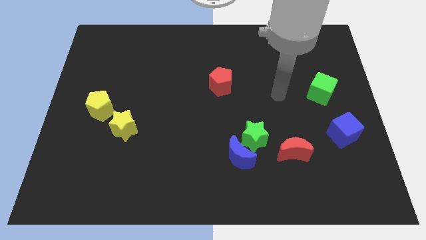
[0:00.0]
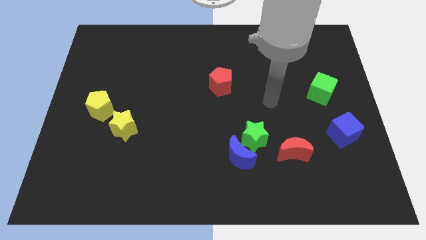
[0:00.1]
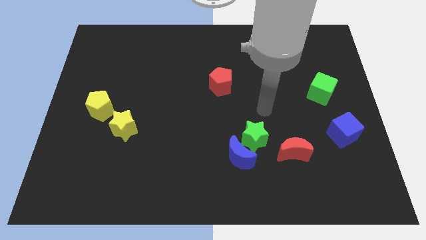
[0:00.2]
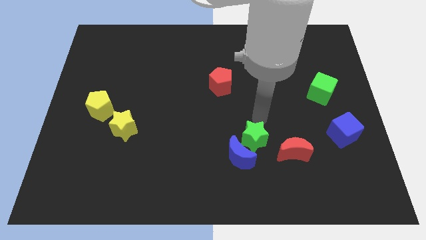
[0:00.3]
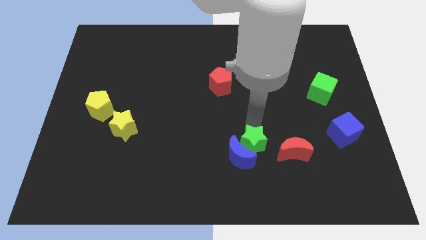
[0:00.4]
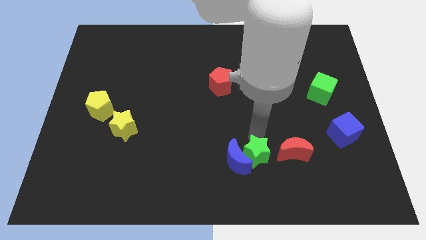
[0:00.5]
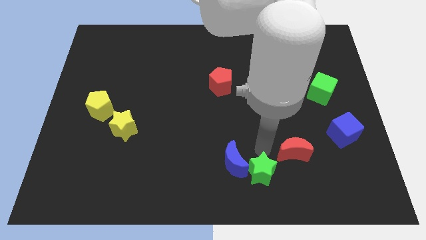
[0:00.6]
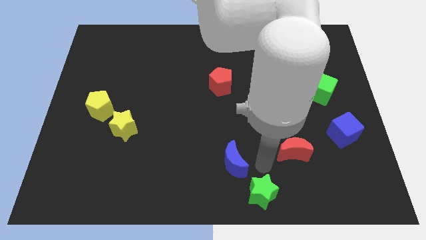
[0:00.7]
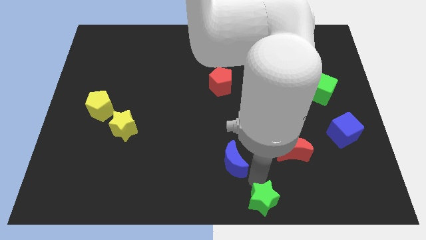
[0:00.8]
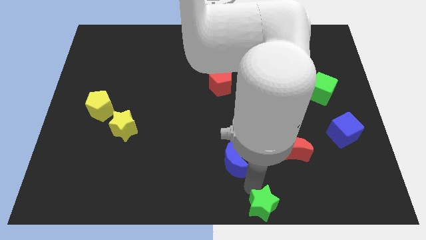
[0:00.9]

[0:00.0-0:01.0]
pull the blue moon apart from the green star

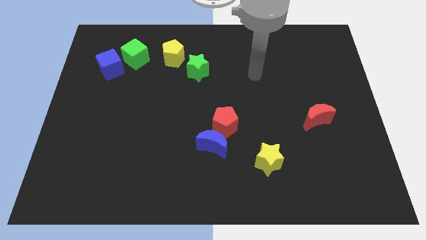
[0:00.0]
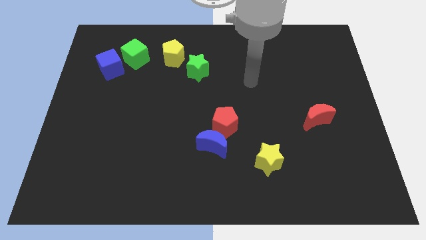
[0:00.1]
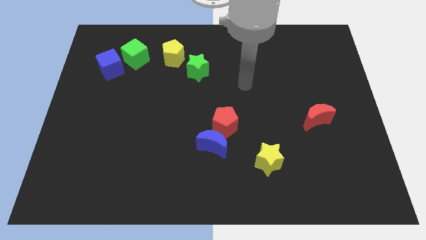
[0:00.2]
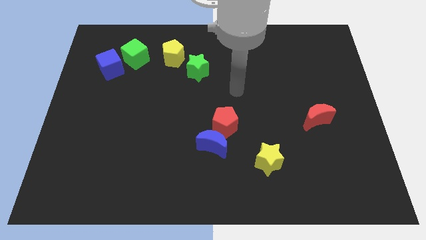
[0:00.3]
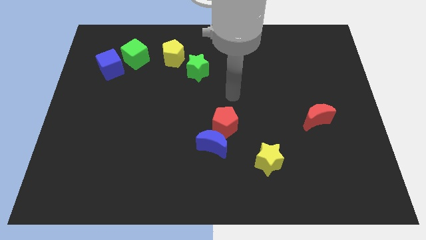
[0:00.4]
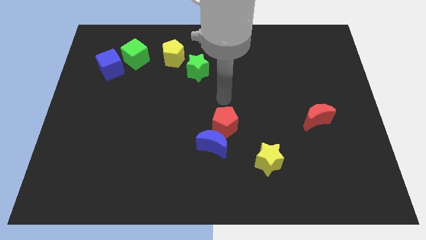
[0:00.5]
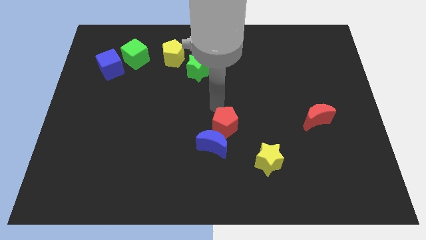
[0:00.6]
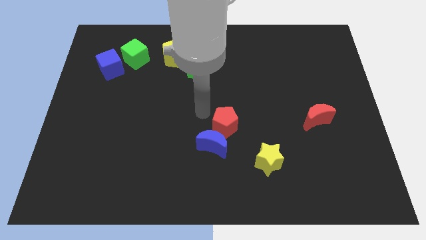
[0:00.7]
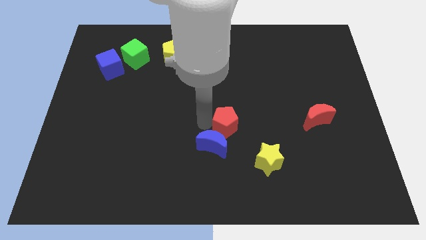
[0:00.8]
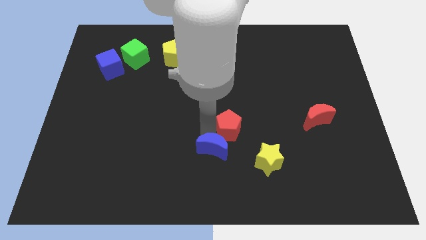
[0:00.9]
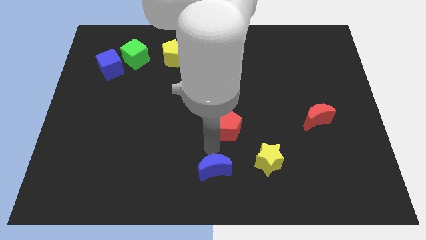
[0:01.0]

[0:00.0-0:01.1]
move the red pentagon away from the blue moon

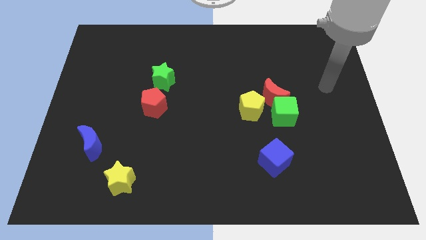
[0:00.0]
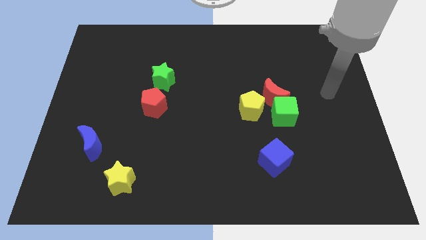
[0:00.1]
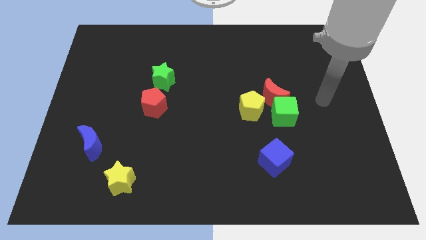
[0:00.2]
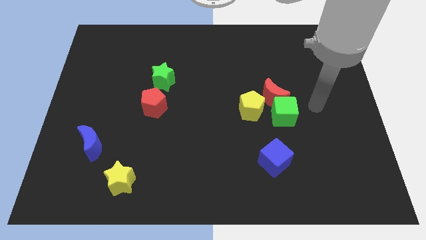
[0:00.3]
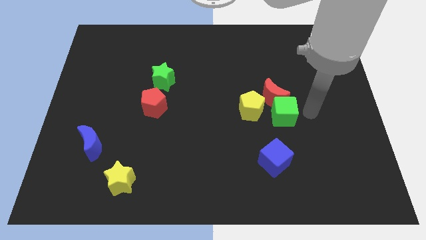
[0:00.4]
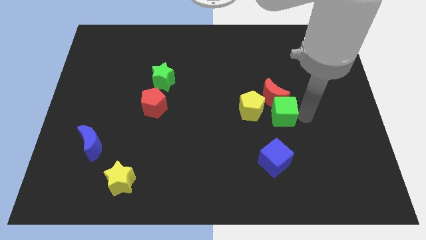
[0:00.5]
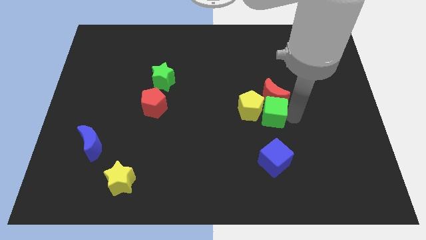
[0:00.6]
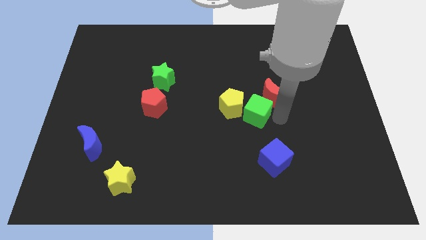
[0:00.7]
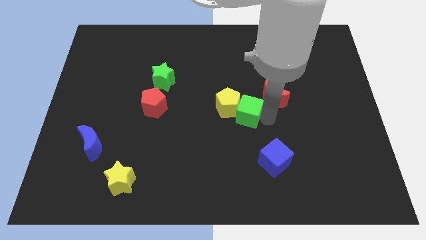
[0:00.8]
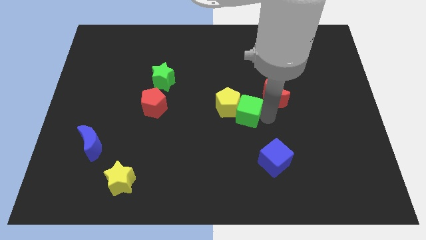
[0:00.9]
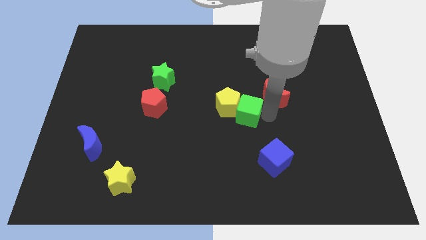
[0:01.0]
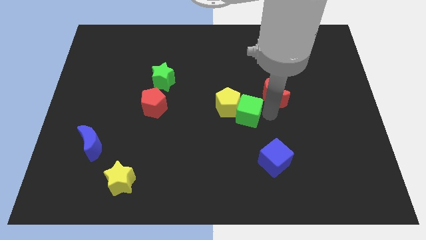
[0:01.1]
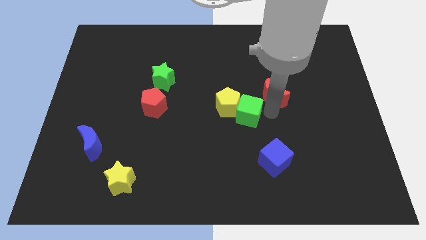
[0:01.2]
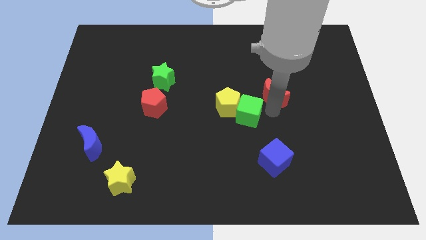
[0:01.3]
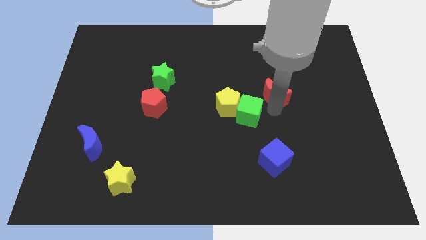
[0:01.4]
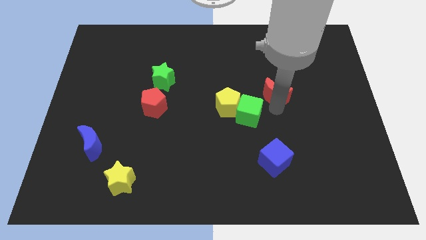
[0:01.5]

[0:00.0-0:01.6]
move the red moon away from the green cube and yellow pentagon

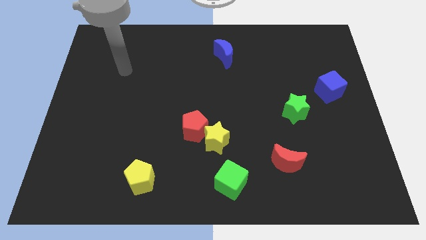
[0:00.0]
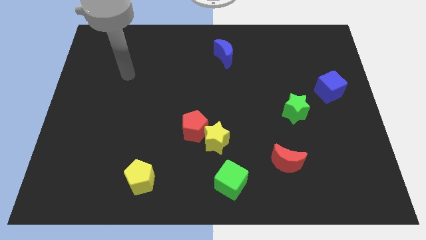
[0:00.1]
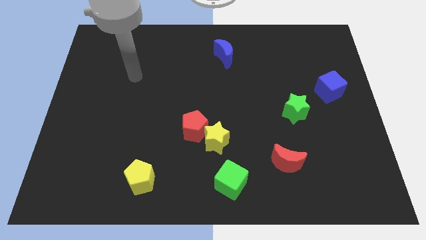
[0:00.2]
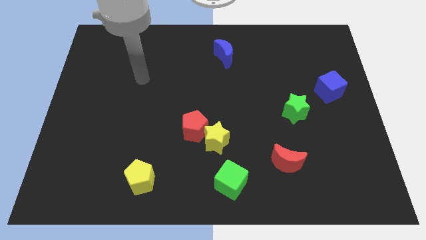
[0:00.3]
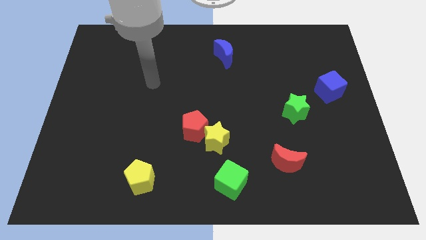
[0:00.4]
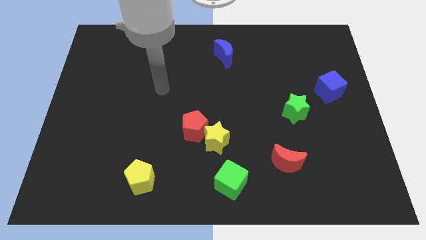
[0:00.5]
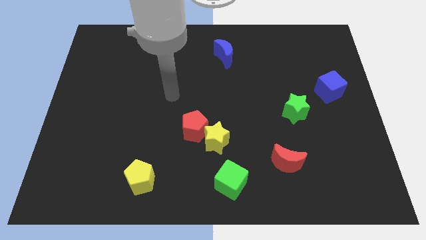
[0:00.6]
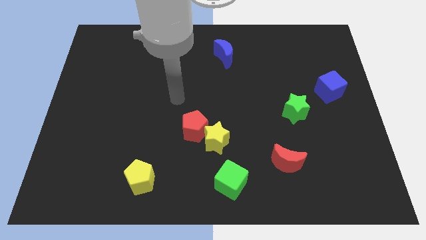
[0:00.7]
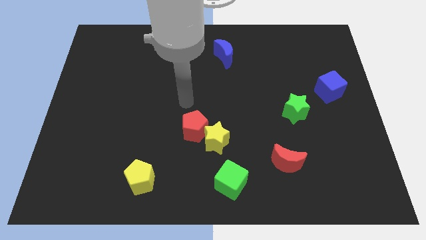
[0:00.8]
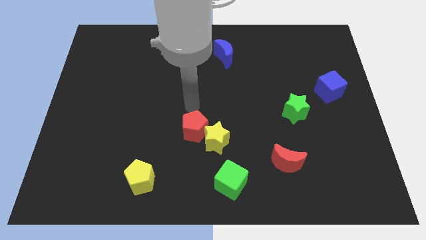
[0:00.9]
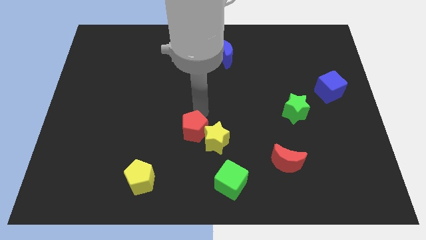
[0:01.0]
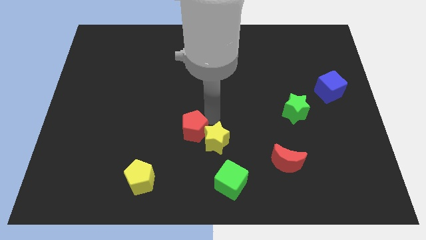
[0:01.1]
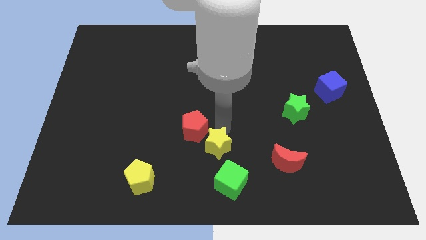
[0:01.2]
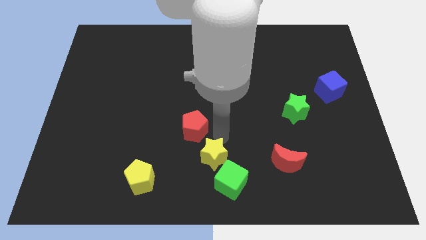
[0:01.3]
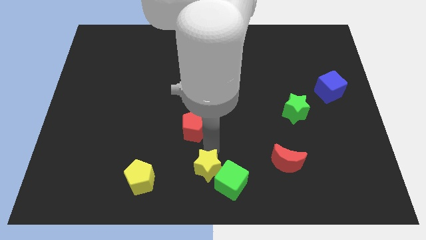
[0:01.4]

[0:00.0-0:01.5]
separate the red pentagon from the yellow star

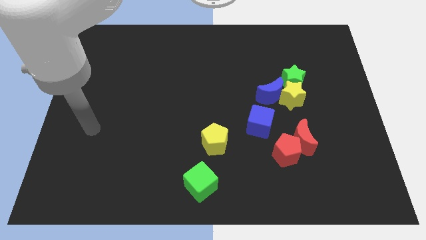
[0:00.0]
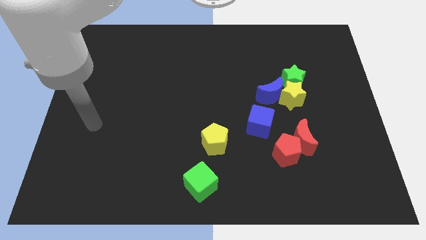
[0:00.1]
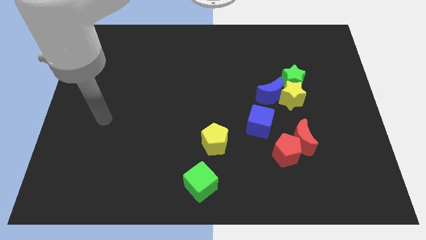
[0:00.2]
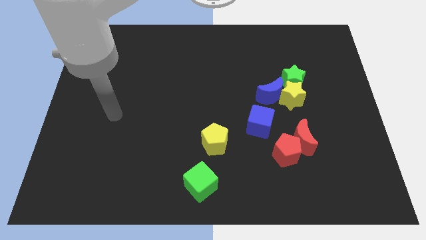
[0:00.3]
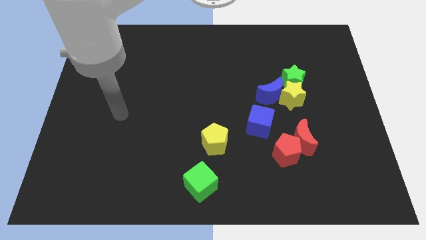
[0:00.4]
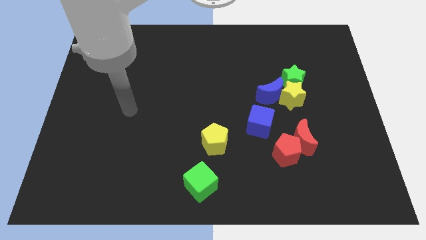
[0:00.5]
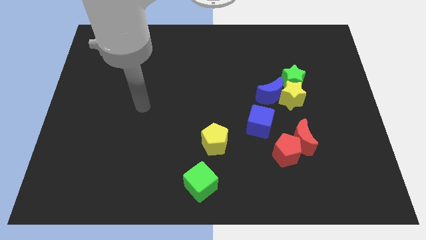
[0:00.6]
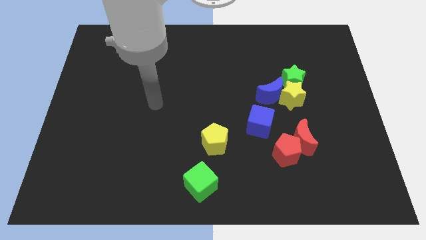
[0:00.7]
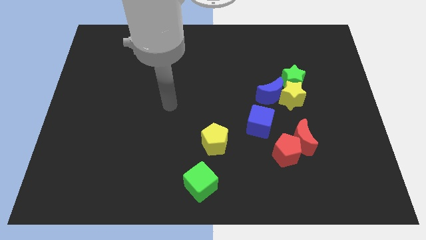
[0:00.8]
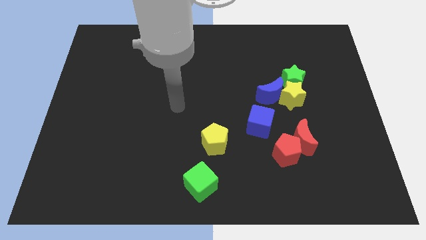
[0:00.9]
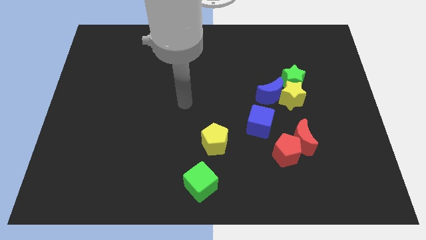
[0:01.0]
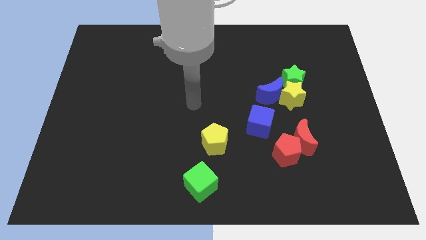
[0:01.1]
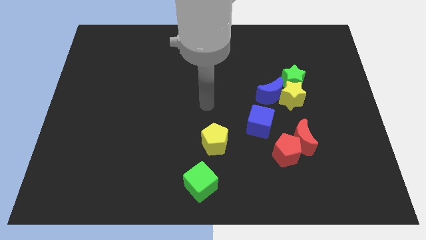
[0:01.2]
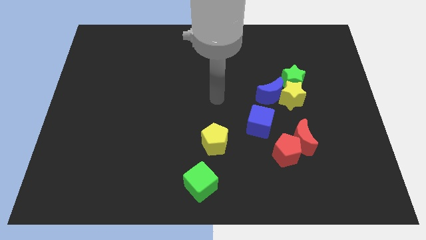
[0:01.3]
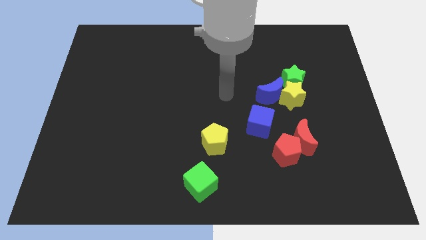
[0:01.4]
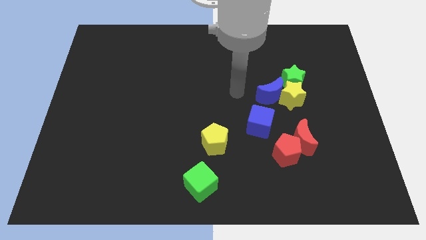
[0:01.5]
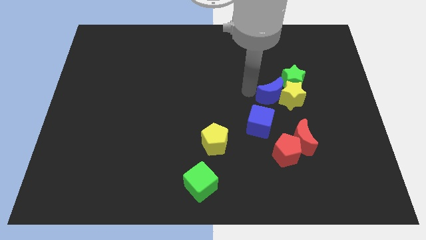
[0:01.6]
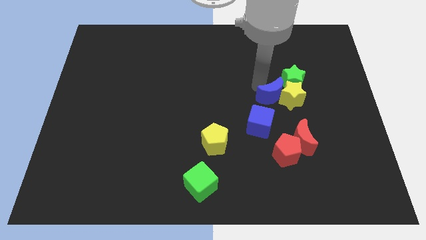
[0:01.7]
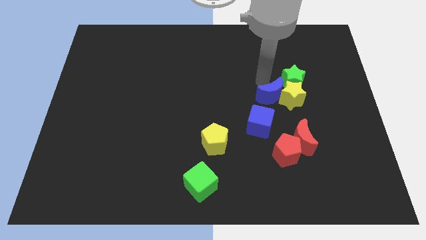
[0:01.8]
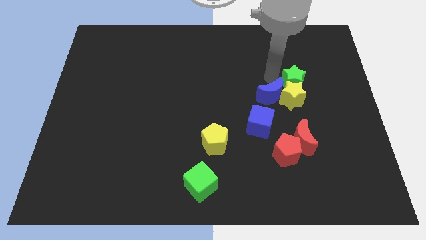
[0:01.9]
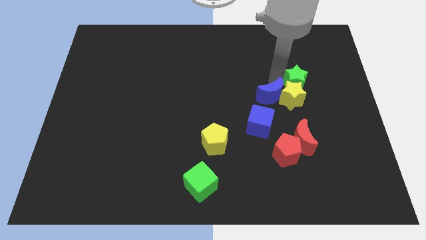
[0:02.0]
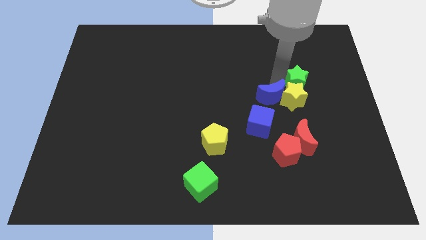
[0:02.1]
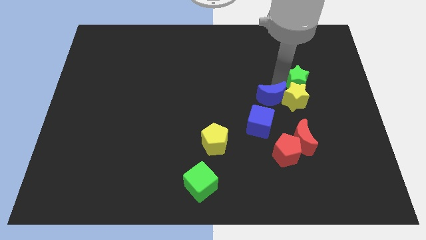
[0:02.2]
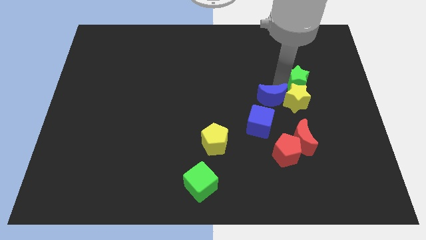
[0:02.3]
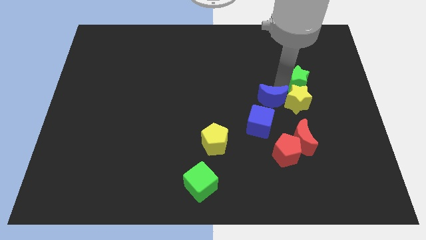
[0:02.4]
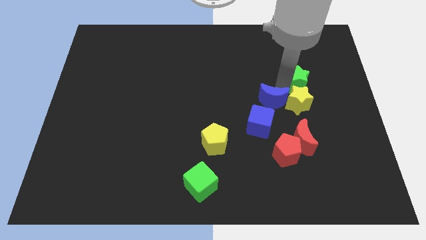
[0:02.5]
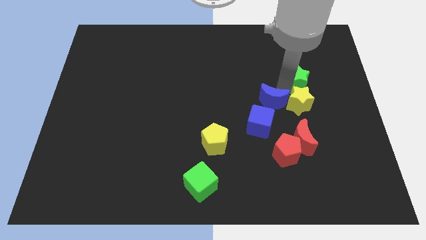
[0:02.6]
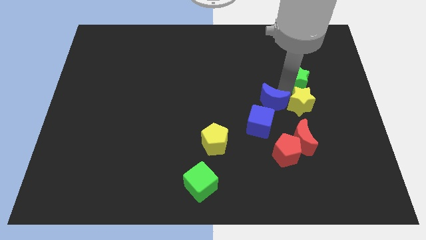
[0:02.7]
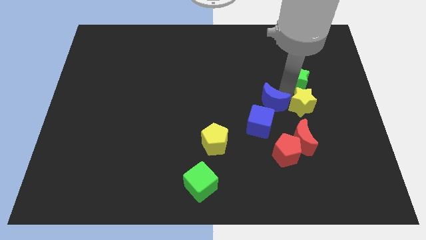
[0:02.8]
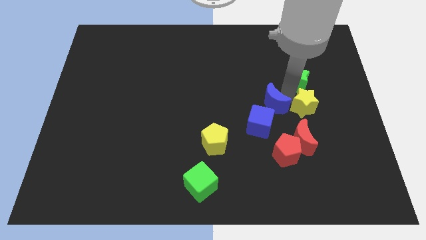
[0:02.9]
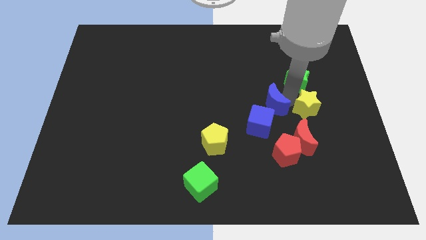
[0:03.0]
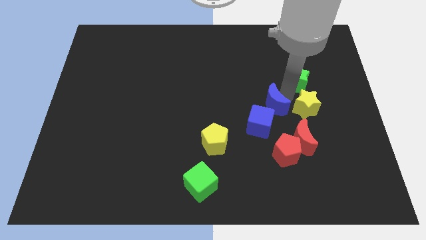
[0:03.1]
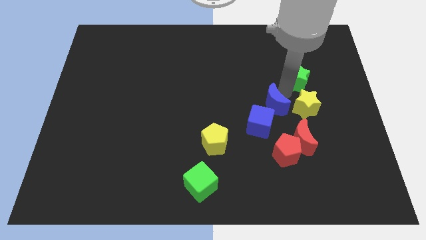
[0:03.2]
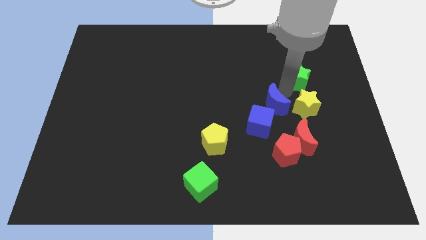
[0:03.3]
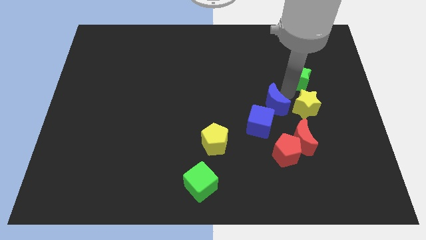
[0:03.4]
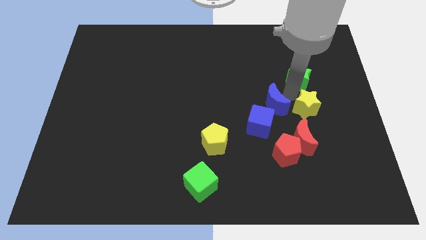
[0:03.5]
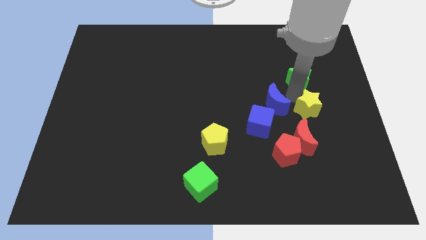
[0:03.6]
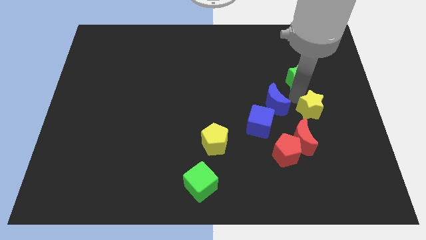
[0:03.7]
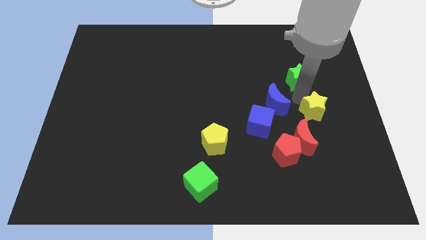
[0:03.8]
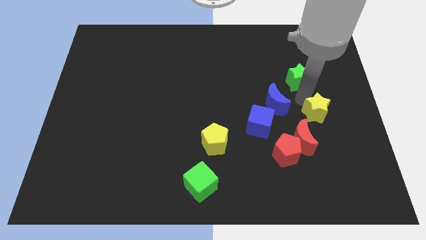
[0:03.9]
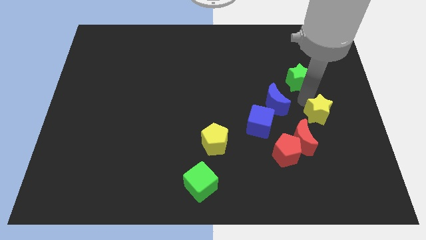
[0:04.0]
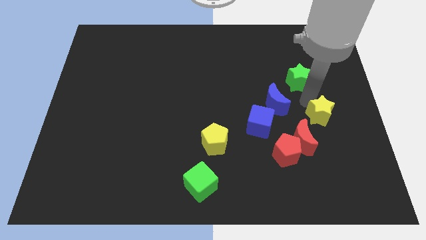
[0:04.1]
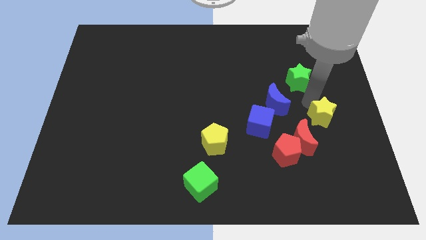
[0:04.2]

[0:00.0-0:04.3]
pull the yellow star apart from the blue moon and green star
